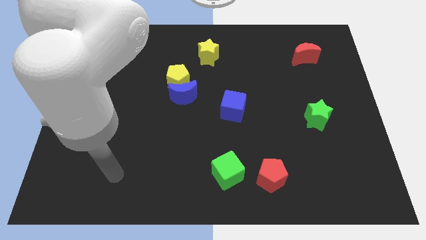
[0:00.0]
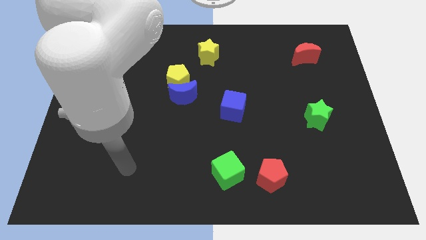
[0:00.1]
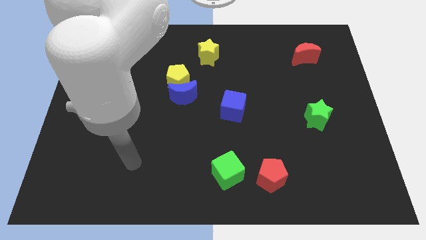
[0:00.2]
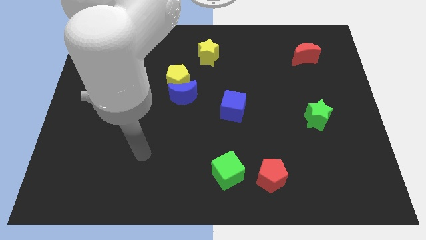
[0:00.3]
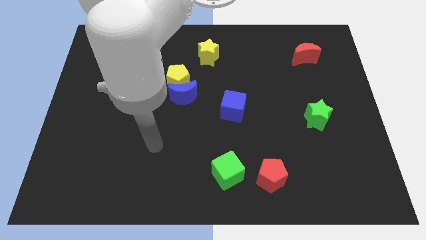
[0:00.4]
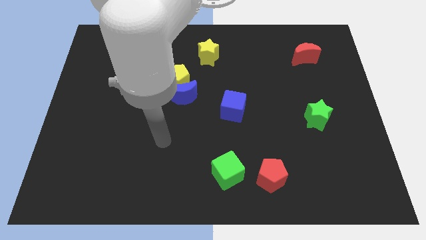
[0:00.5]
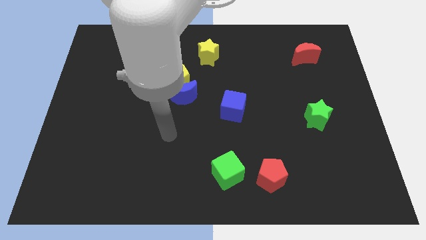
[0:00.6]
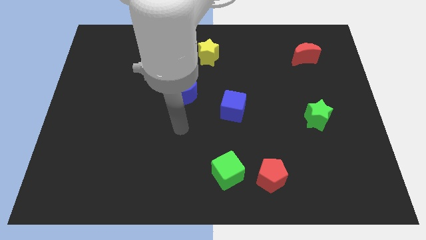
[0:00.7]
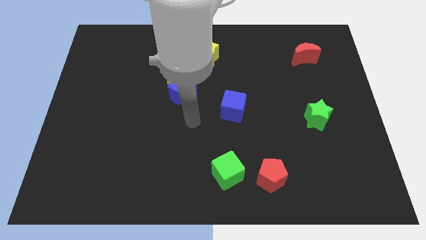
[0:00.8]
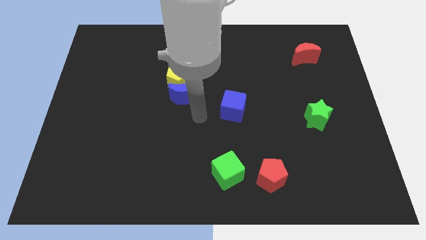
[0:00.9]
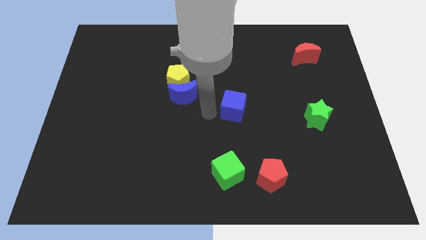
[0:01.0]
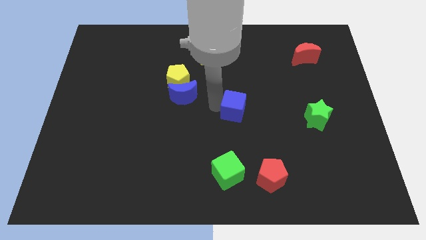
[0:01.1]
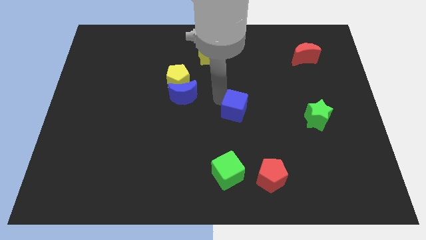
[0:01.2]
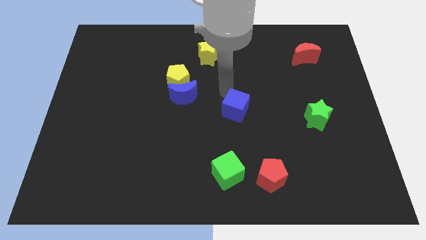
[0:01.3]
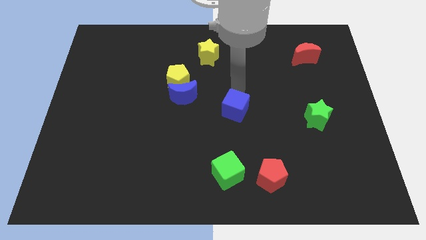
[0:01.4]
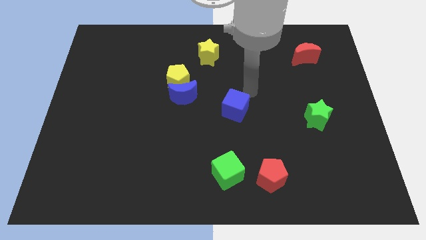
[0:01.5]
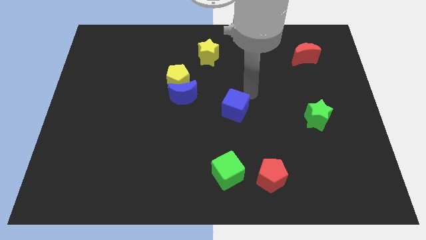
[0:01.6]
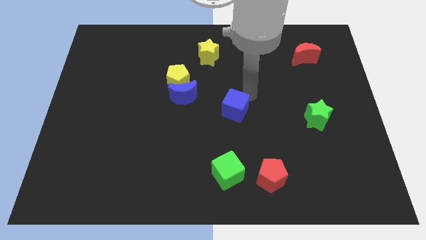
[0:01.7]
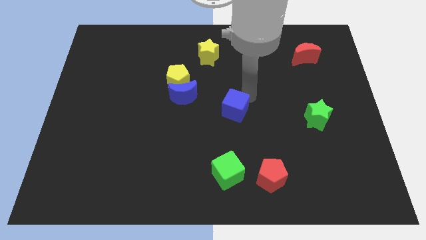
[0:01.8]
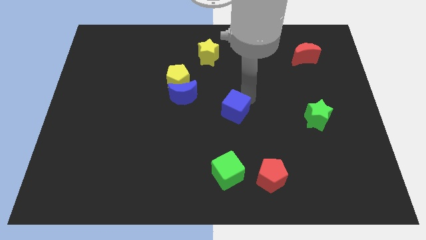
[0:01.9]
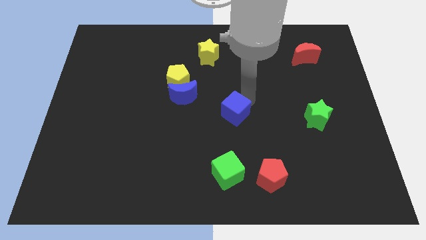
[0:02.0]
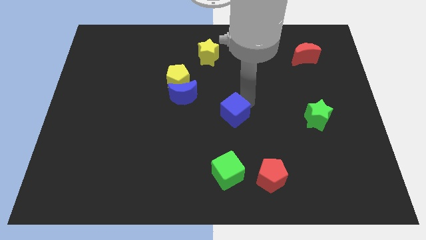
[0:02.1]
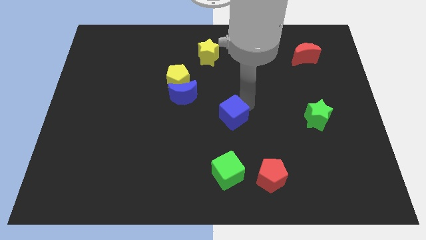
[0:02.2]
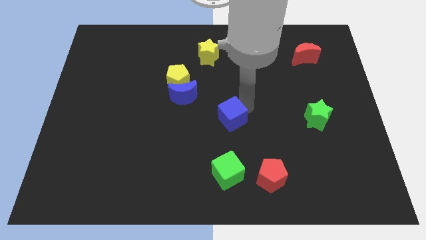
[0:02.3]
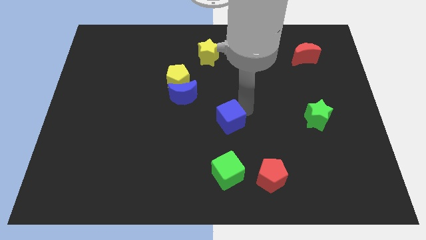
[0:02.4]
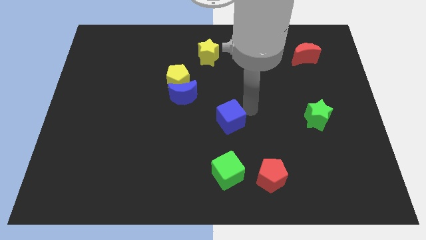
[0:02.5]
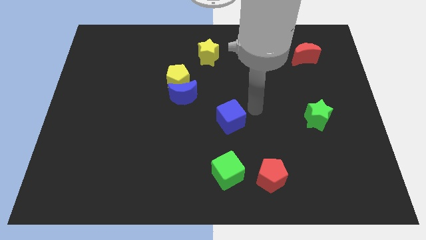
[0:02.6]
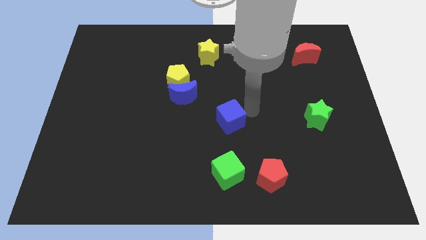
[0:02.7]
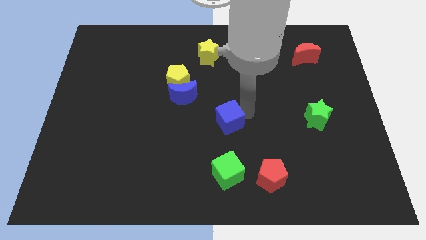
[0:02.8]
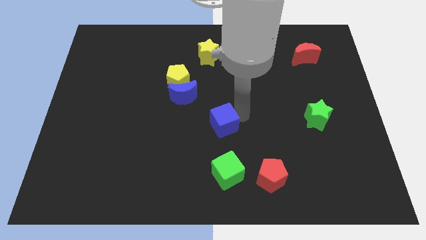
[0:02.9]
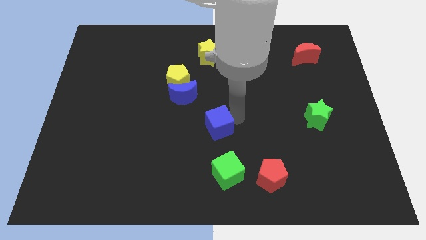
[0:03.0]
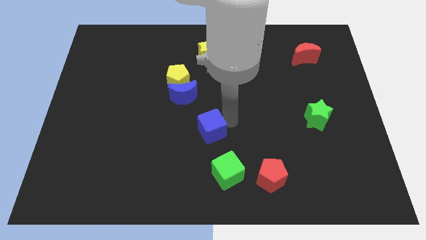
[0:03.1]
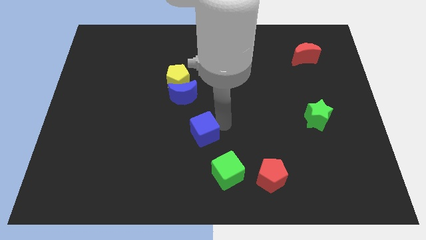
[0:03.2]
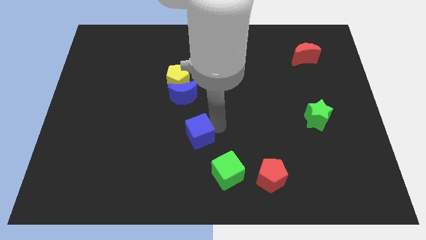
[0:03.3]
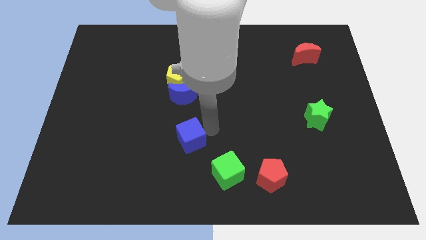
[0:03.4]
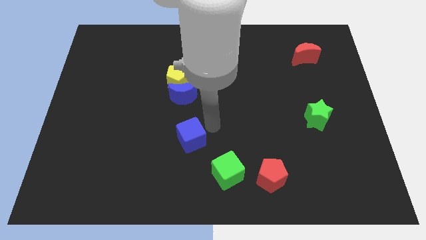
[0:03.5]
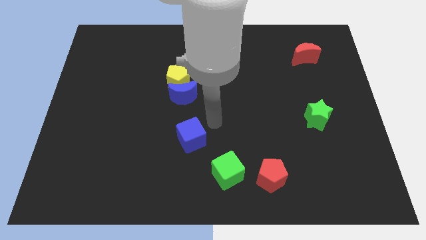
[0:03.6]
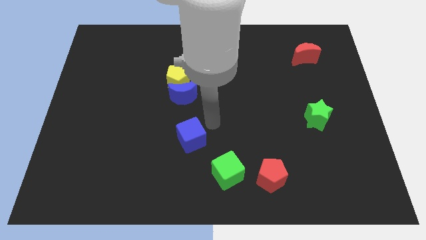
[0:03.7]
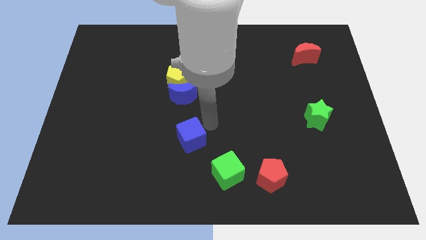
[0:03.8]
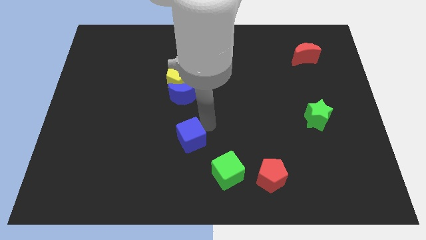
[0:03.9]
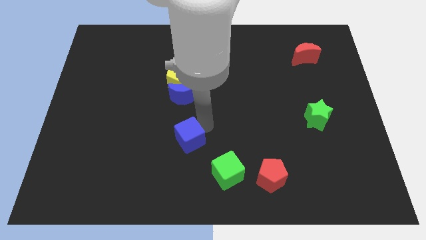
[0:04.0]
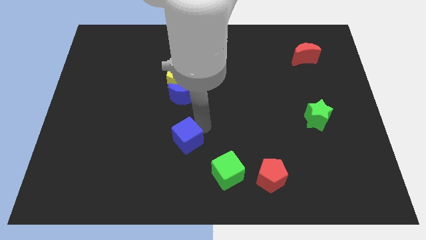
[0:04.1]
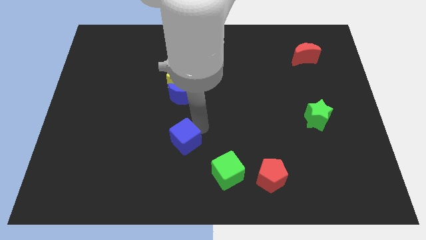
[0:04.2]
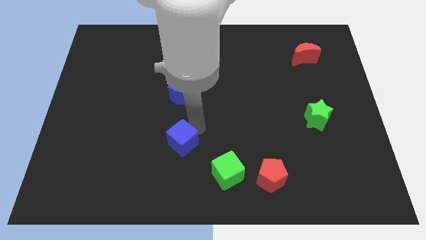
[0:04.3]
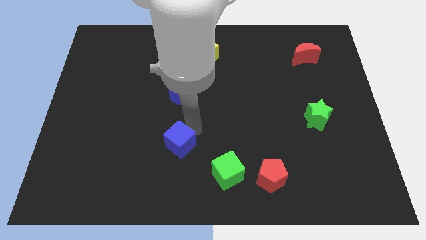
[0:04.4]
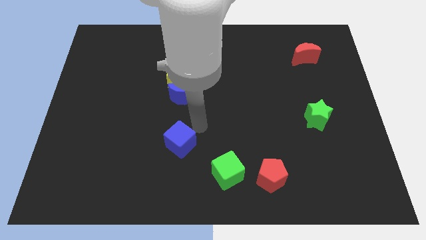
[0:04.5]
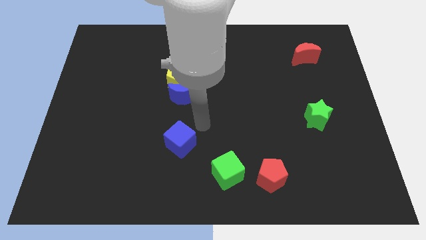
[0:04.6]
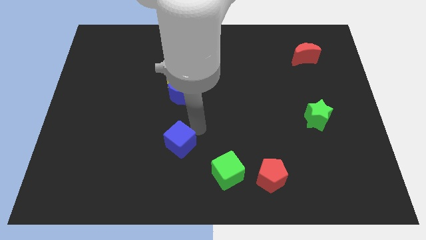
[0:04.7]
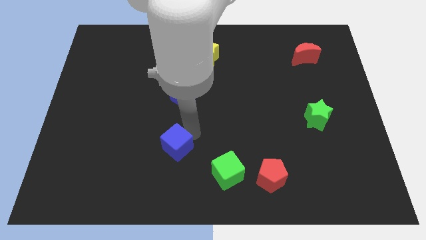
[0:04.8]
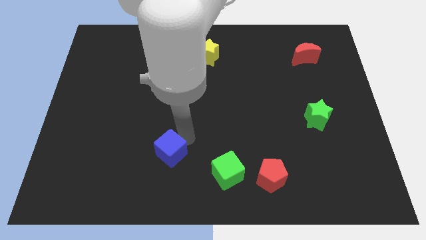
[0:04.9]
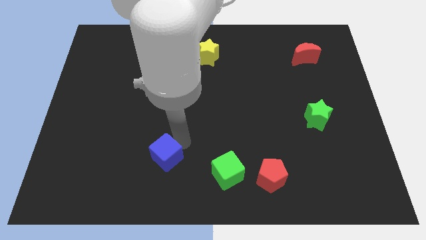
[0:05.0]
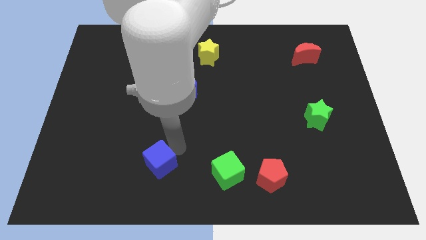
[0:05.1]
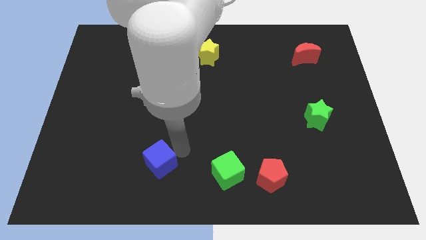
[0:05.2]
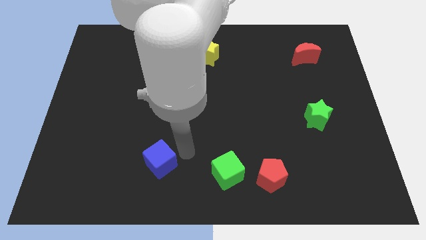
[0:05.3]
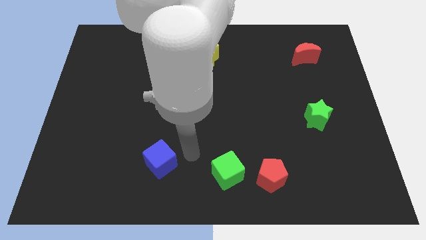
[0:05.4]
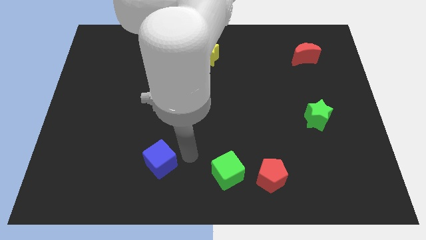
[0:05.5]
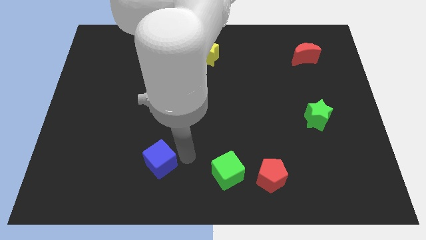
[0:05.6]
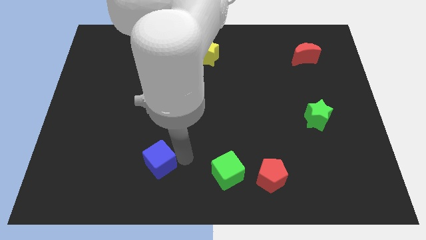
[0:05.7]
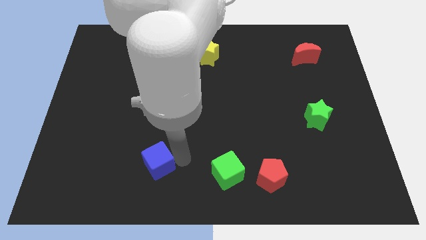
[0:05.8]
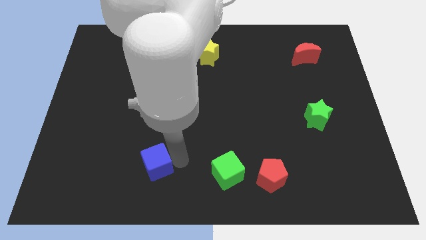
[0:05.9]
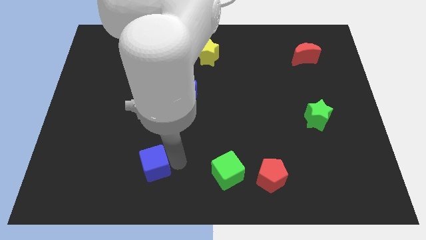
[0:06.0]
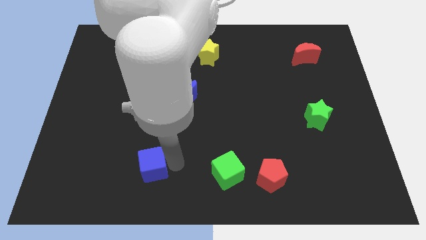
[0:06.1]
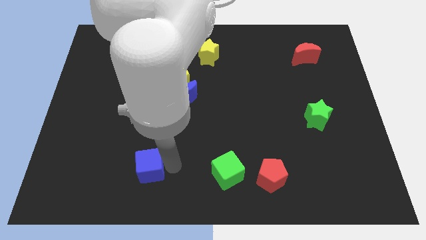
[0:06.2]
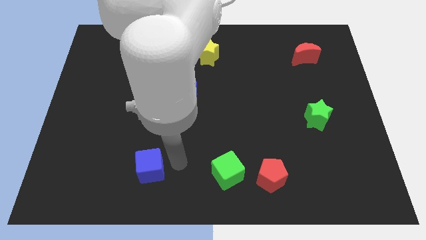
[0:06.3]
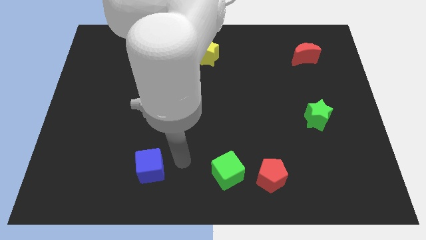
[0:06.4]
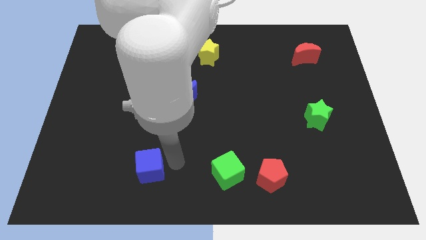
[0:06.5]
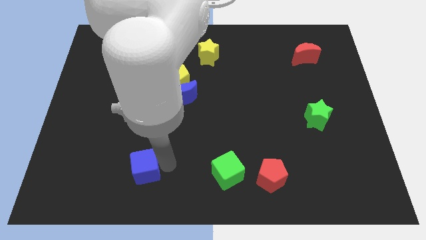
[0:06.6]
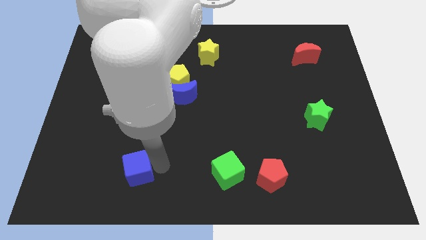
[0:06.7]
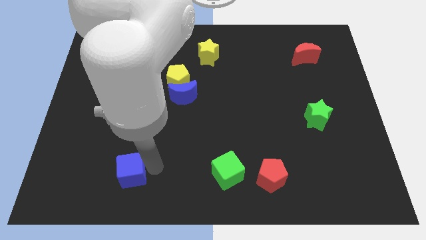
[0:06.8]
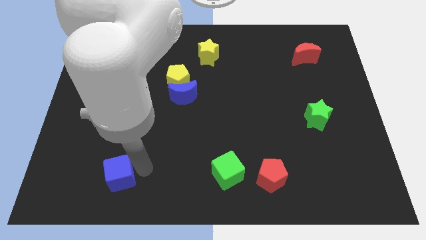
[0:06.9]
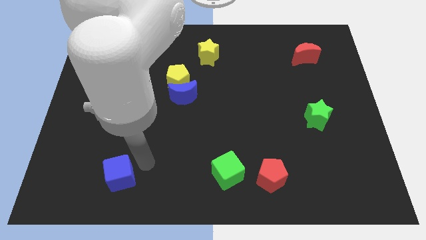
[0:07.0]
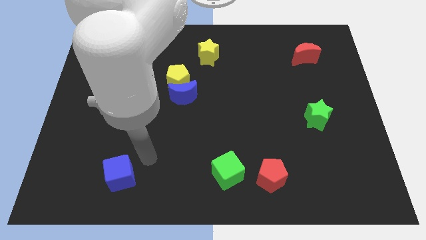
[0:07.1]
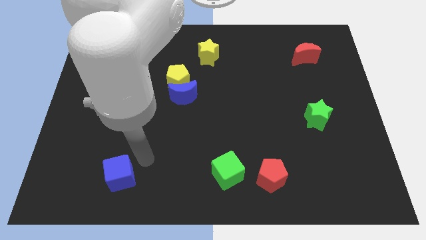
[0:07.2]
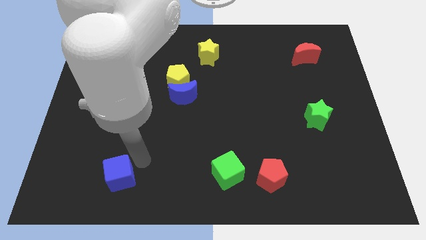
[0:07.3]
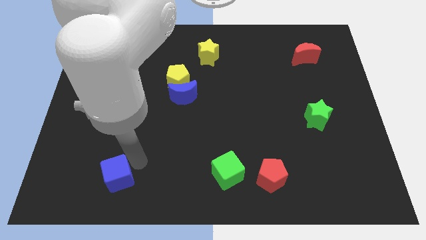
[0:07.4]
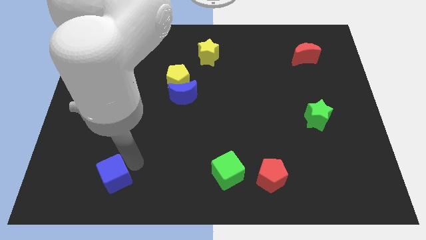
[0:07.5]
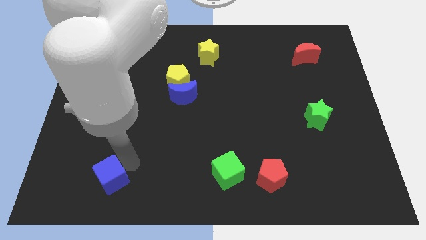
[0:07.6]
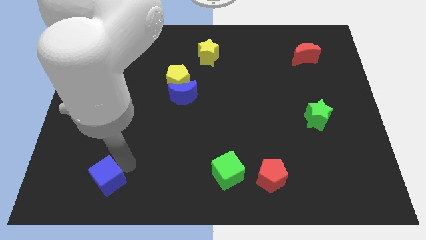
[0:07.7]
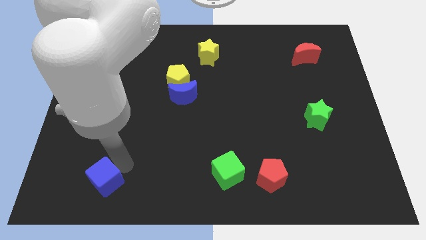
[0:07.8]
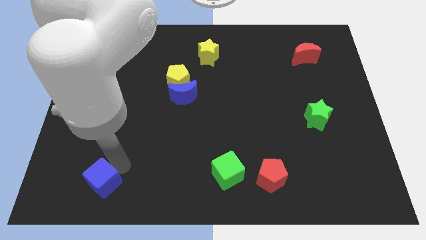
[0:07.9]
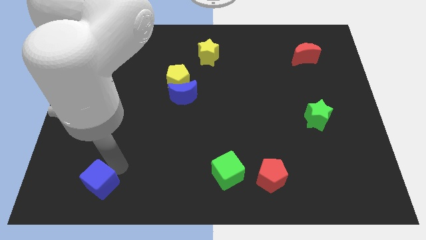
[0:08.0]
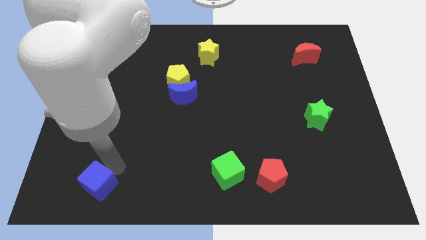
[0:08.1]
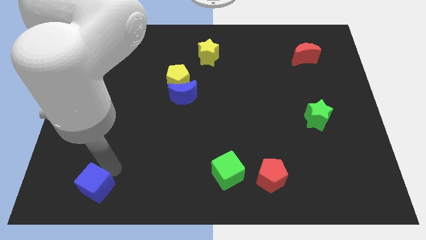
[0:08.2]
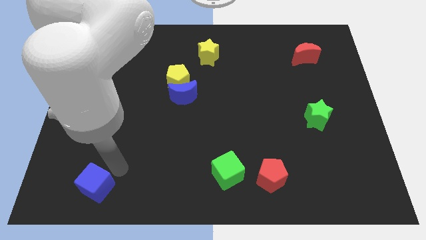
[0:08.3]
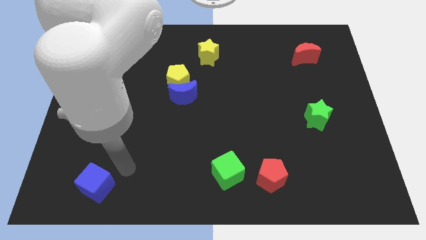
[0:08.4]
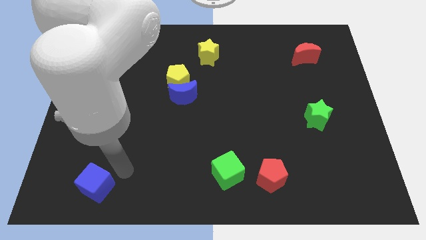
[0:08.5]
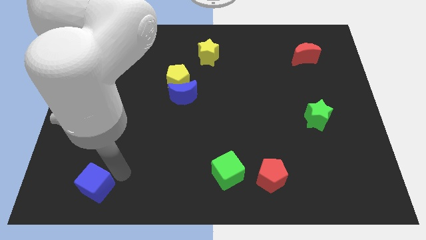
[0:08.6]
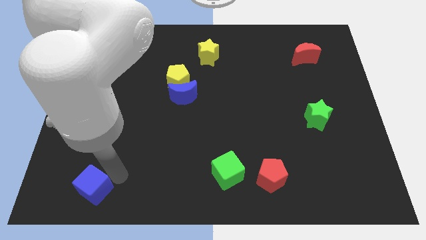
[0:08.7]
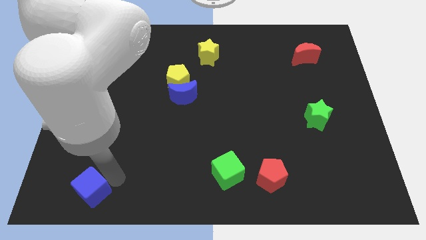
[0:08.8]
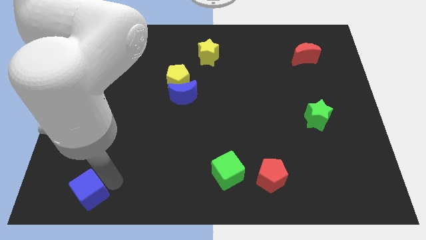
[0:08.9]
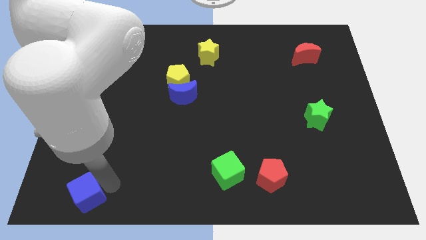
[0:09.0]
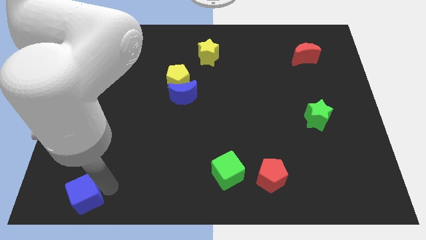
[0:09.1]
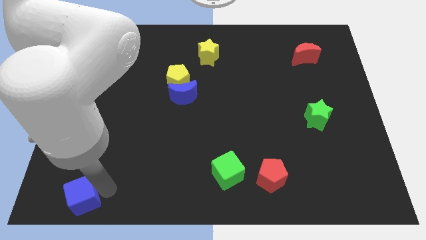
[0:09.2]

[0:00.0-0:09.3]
put the blue cube to the bottom left corner
